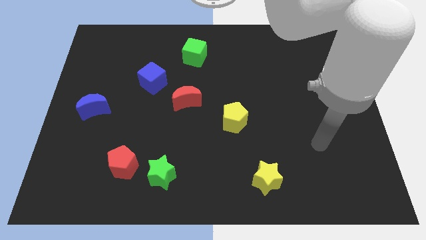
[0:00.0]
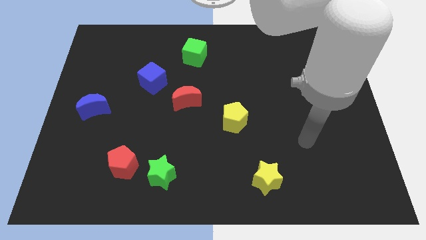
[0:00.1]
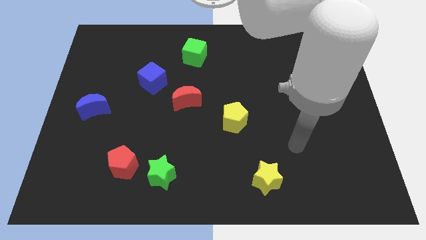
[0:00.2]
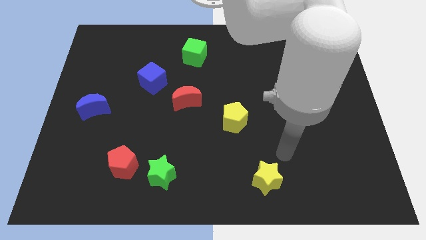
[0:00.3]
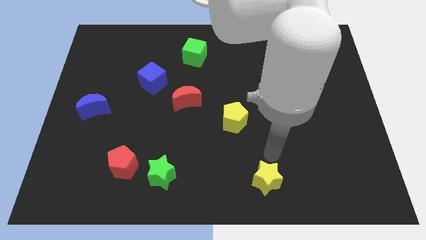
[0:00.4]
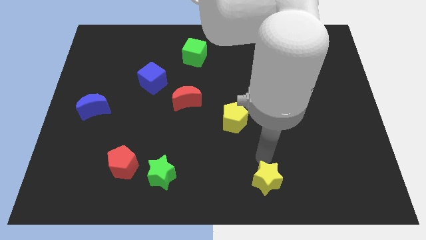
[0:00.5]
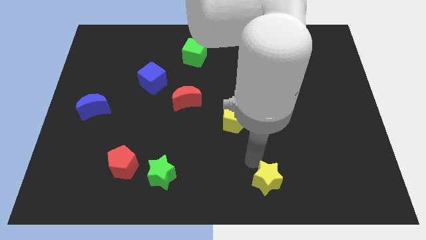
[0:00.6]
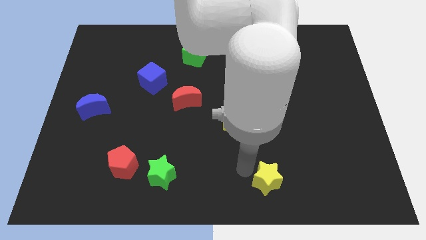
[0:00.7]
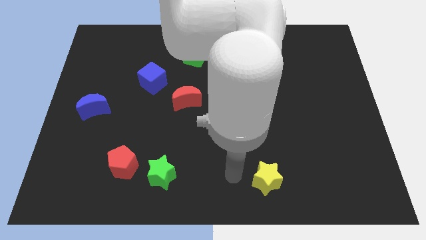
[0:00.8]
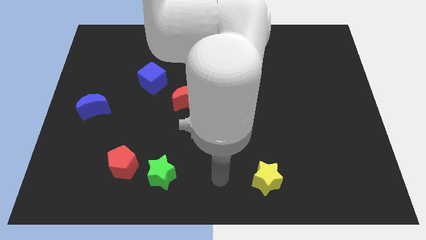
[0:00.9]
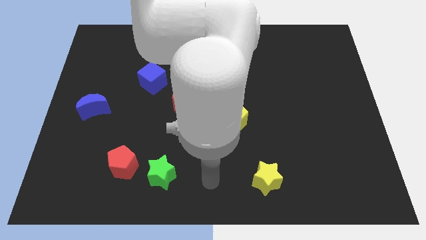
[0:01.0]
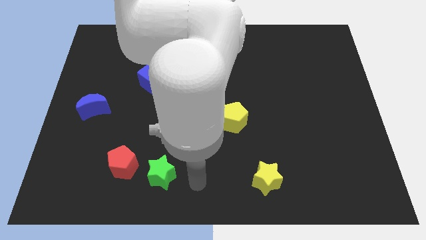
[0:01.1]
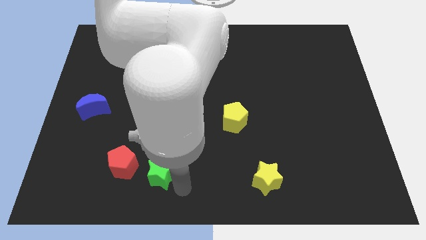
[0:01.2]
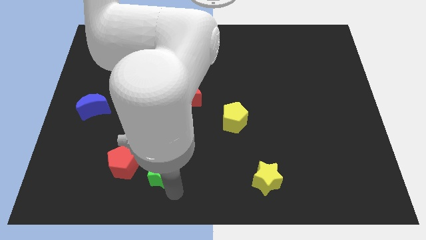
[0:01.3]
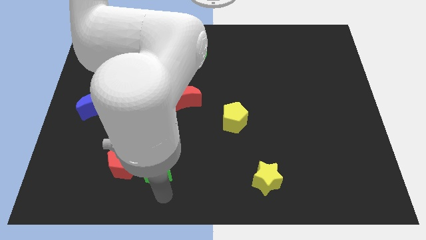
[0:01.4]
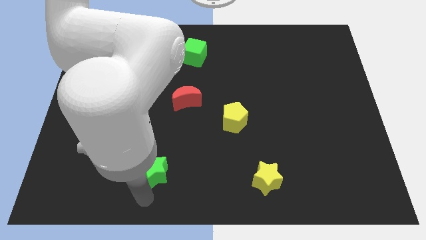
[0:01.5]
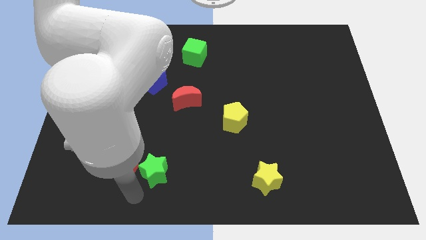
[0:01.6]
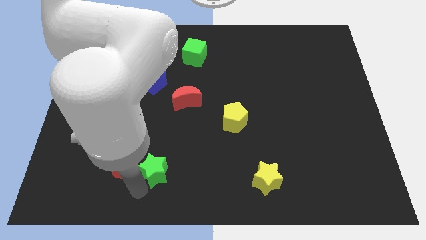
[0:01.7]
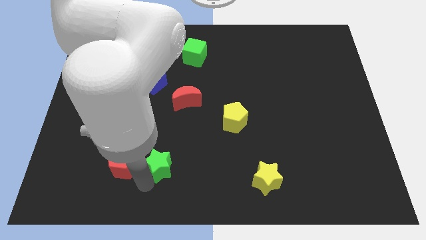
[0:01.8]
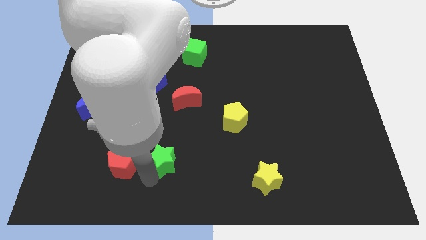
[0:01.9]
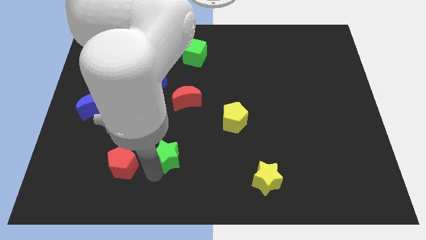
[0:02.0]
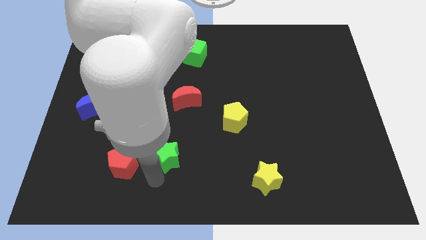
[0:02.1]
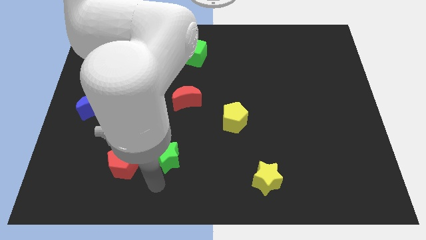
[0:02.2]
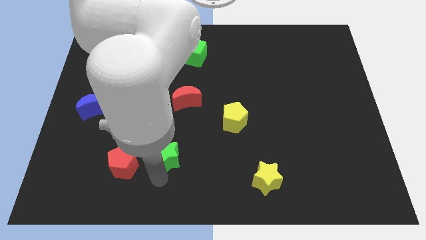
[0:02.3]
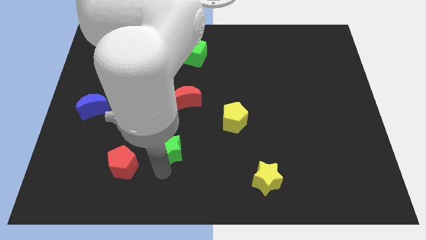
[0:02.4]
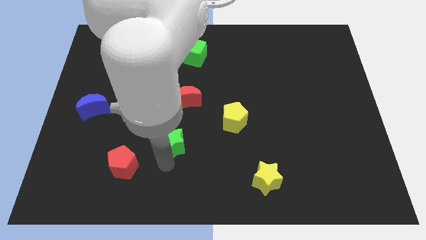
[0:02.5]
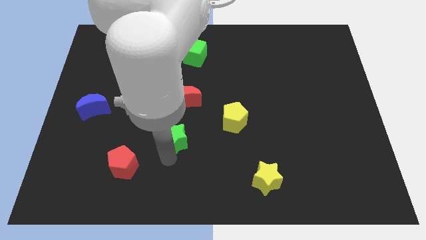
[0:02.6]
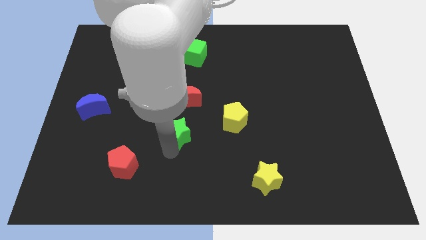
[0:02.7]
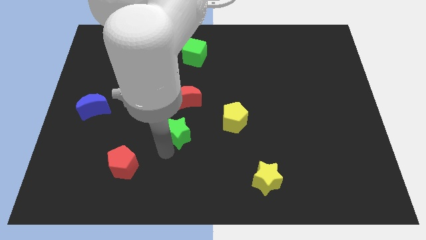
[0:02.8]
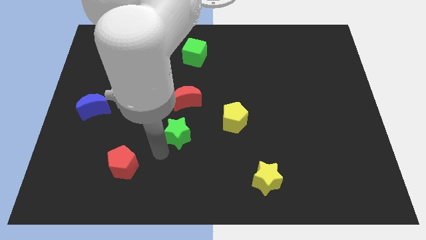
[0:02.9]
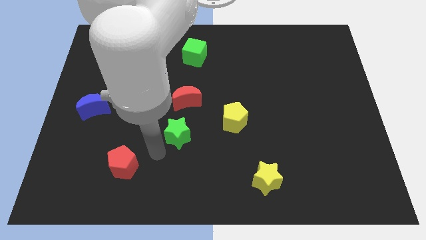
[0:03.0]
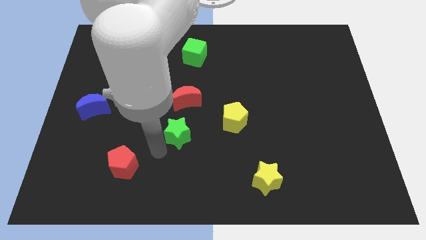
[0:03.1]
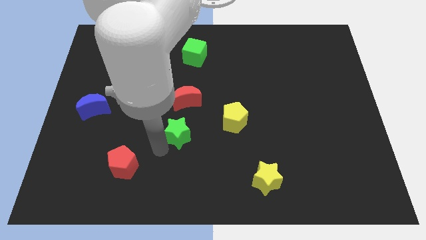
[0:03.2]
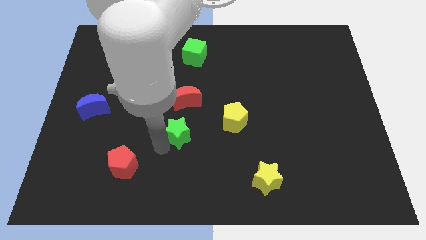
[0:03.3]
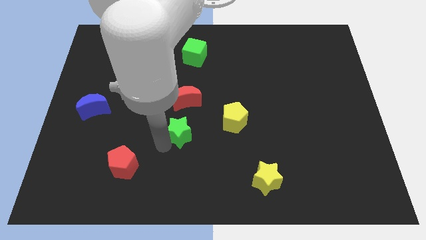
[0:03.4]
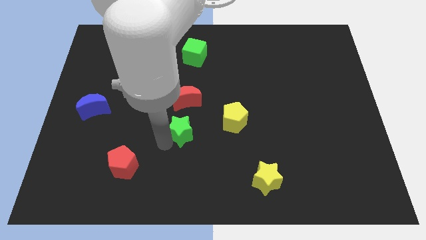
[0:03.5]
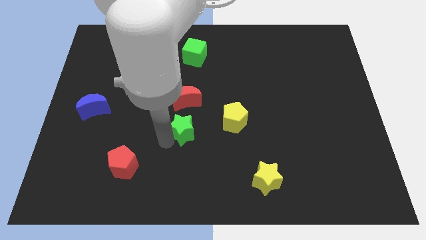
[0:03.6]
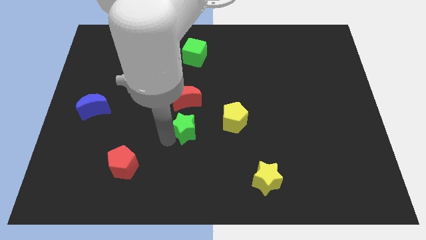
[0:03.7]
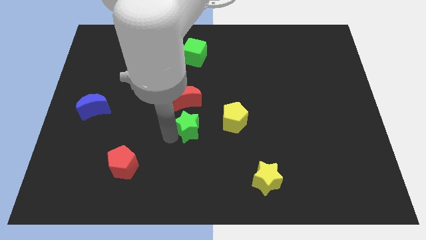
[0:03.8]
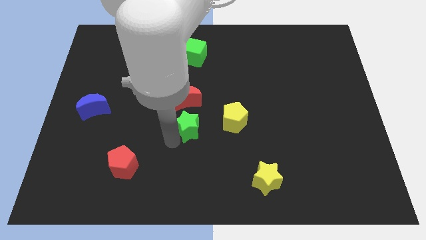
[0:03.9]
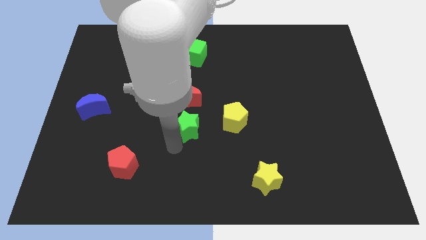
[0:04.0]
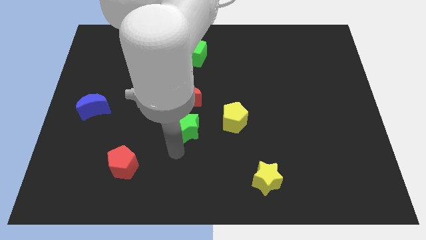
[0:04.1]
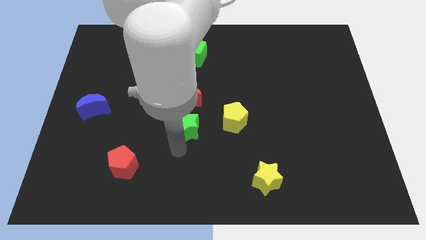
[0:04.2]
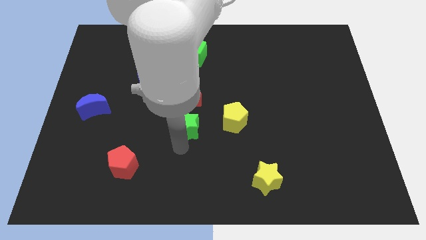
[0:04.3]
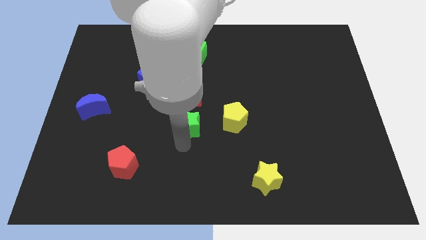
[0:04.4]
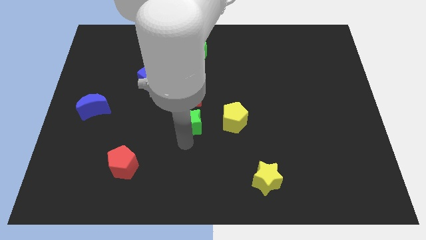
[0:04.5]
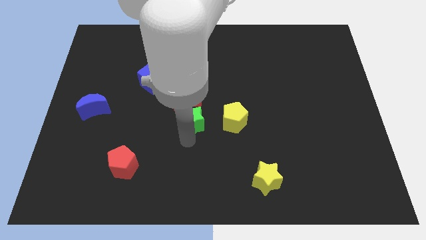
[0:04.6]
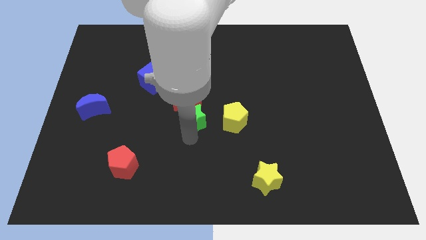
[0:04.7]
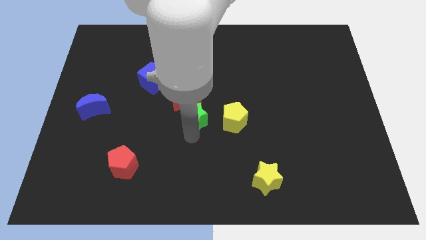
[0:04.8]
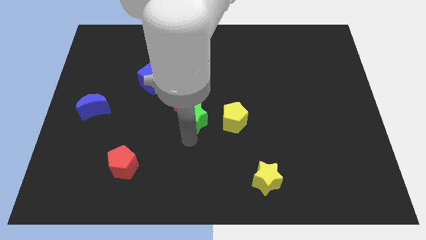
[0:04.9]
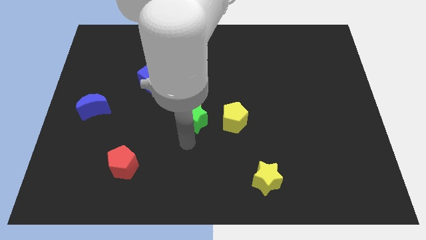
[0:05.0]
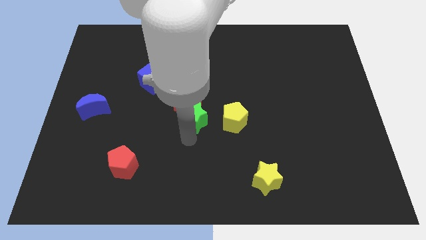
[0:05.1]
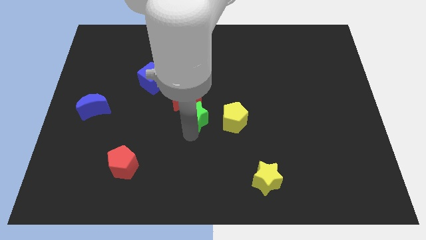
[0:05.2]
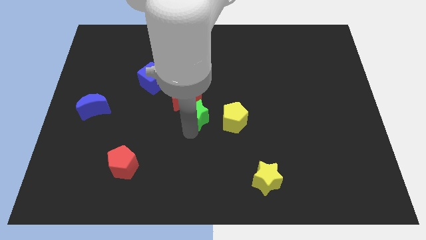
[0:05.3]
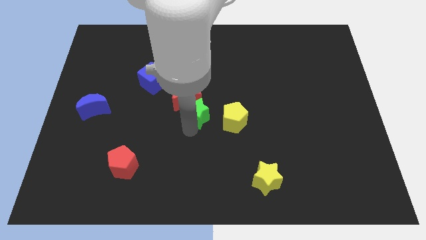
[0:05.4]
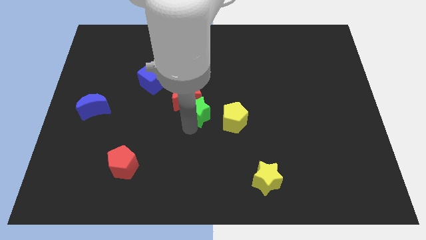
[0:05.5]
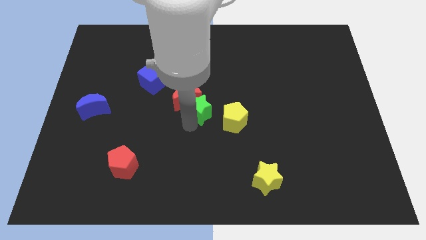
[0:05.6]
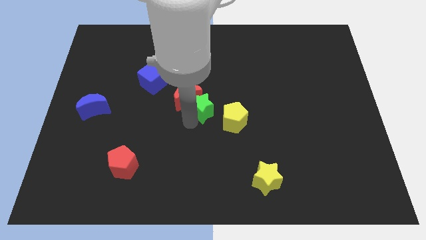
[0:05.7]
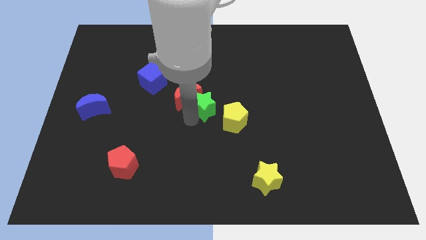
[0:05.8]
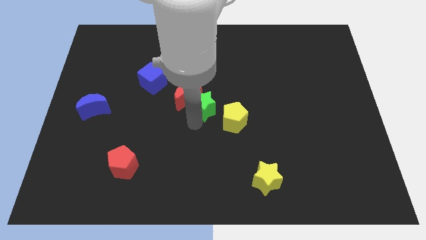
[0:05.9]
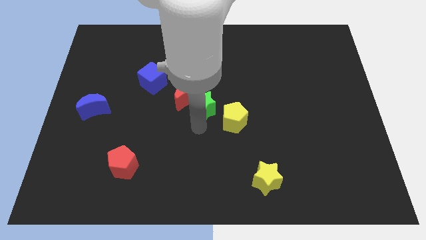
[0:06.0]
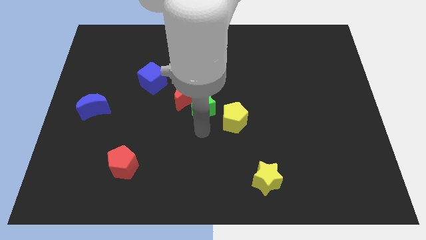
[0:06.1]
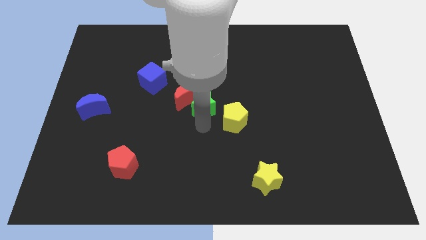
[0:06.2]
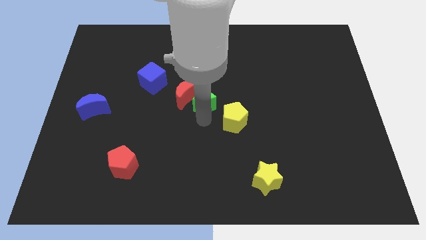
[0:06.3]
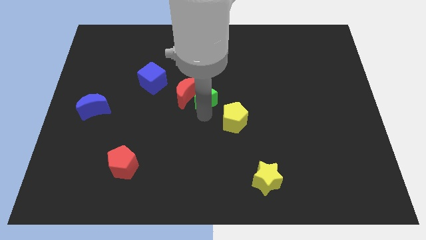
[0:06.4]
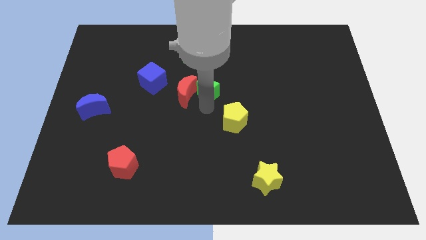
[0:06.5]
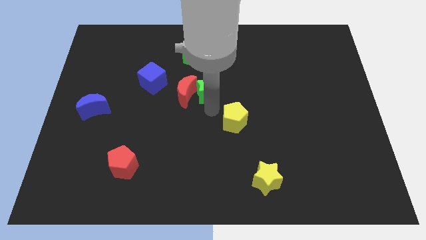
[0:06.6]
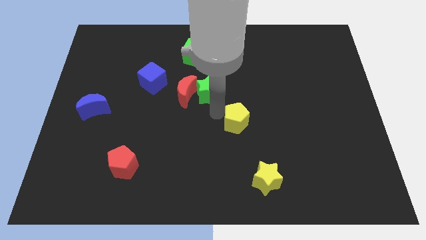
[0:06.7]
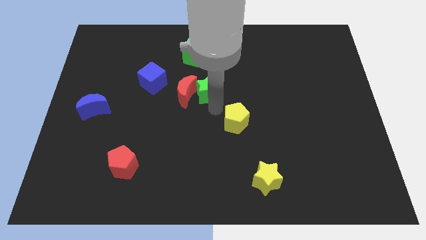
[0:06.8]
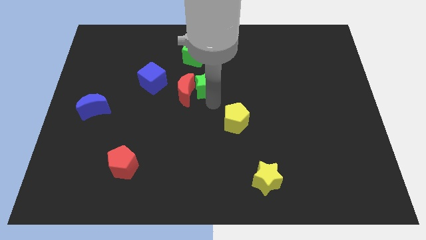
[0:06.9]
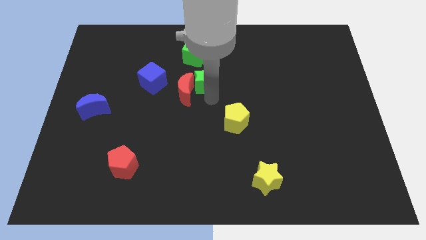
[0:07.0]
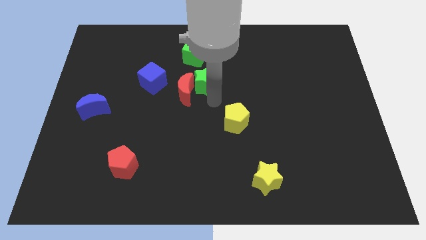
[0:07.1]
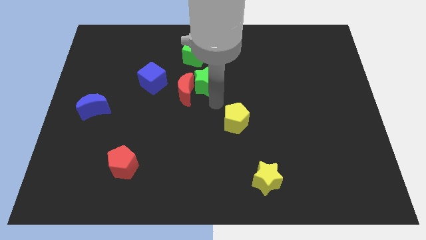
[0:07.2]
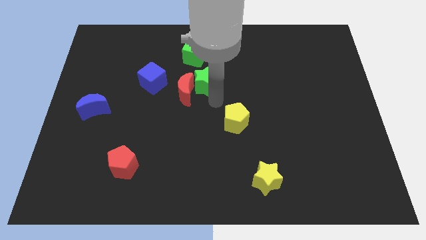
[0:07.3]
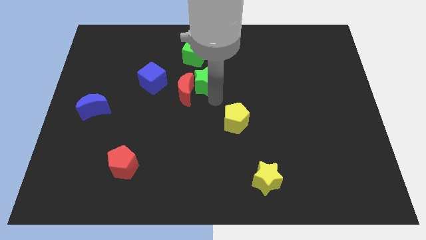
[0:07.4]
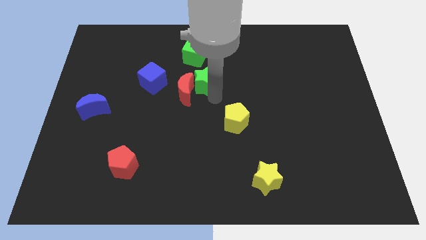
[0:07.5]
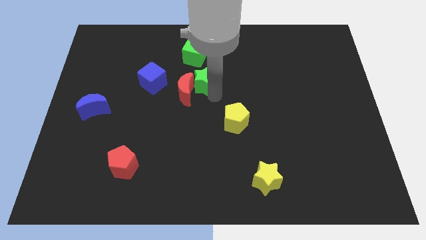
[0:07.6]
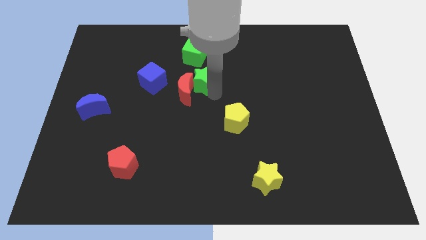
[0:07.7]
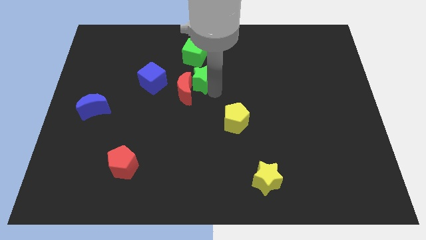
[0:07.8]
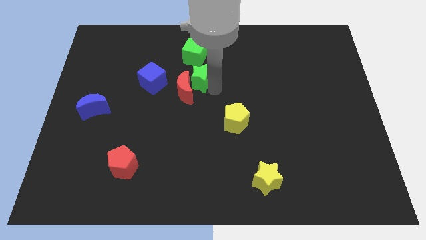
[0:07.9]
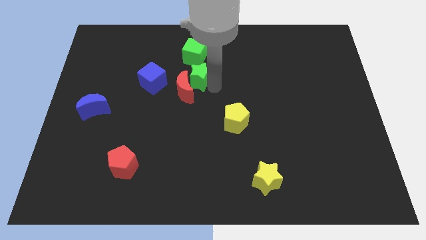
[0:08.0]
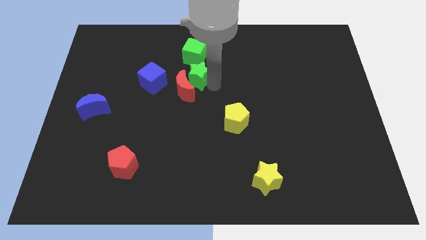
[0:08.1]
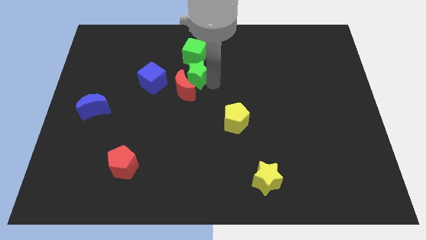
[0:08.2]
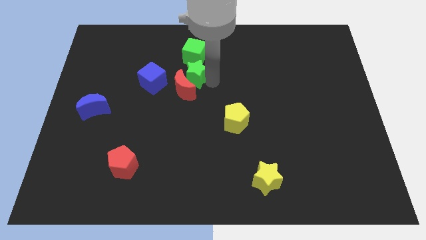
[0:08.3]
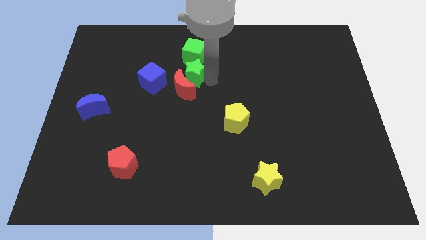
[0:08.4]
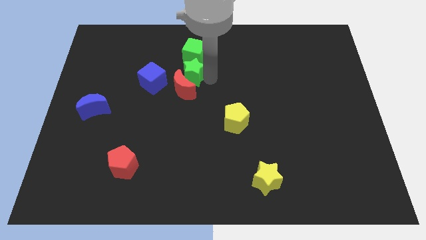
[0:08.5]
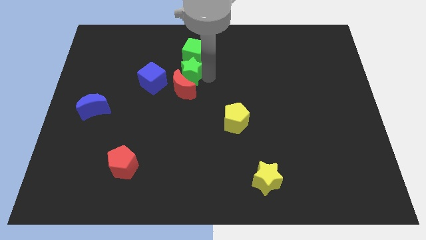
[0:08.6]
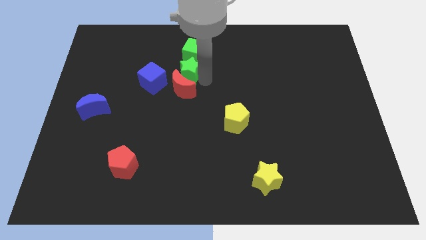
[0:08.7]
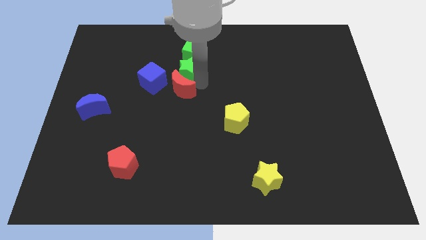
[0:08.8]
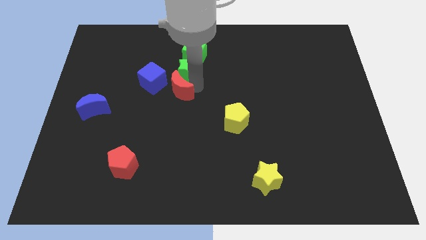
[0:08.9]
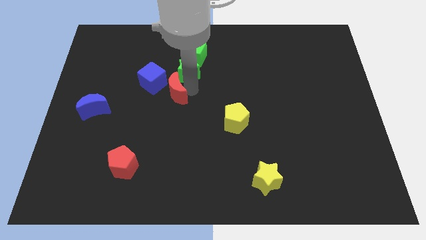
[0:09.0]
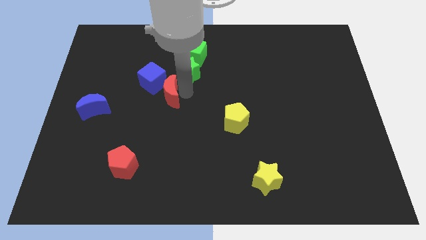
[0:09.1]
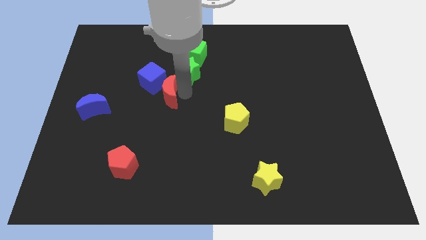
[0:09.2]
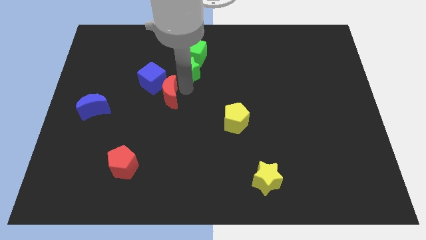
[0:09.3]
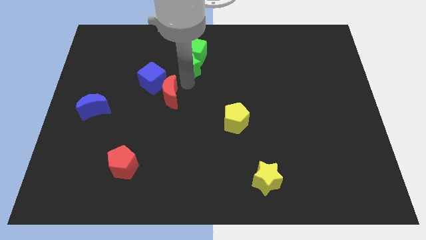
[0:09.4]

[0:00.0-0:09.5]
push the green star towards the green cube
